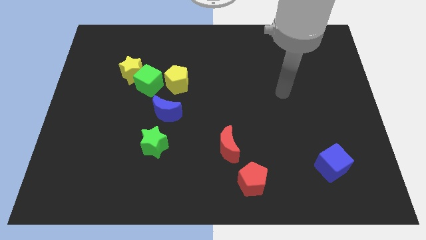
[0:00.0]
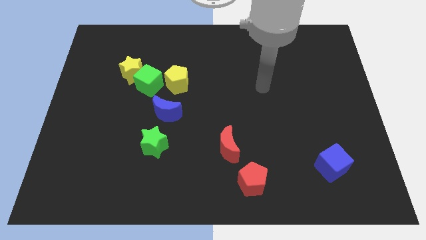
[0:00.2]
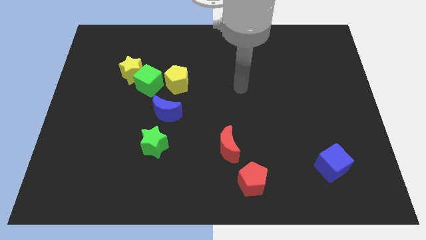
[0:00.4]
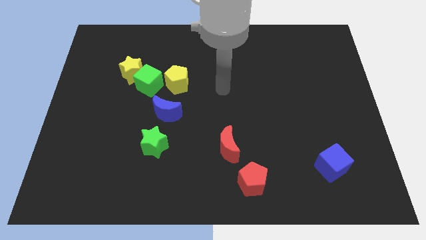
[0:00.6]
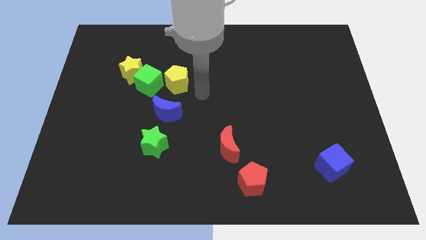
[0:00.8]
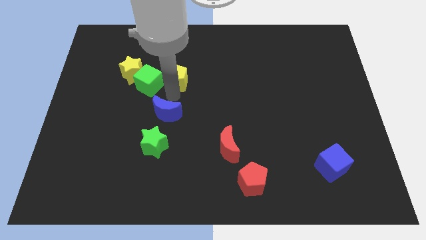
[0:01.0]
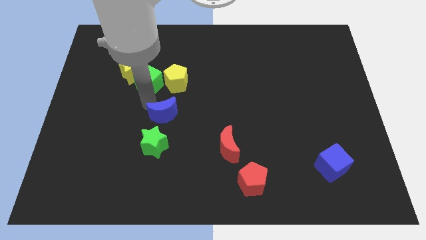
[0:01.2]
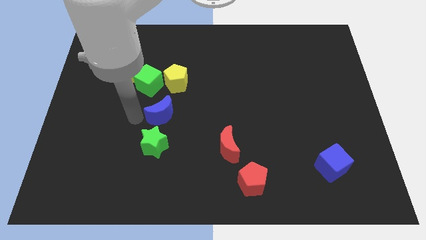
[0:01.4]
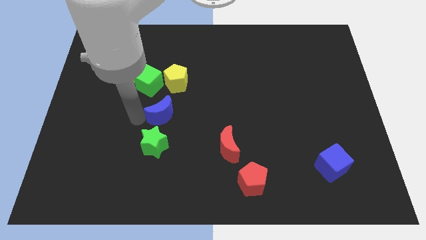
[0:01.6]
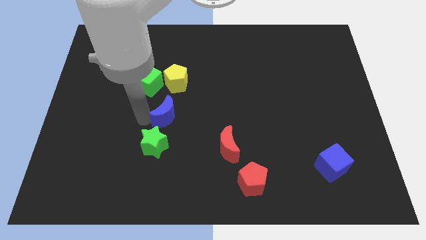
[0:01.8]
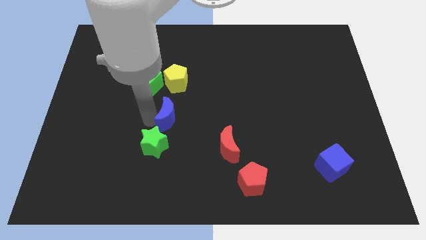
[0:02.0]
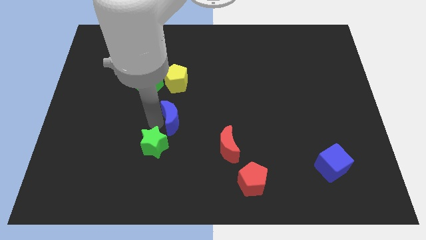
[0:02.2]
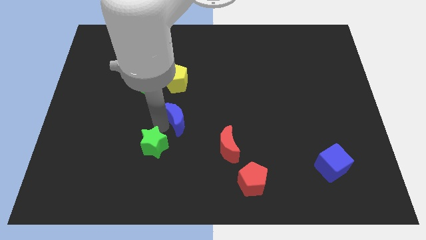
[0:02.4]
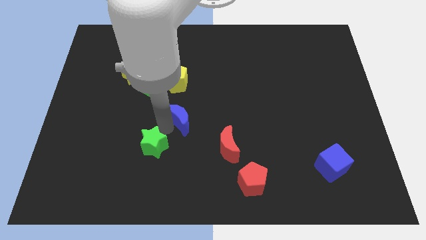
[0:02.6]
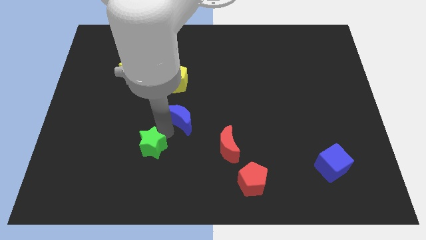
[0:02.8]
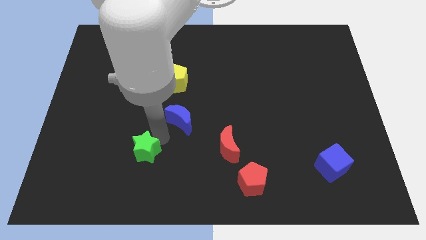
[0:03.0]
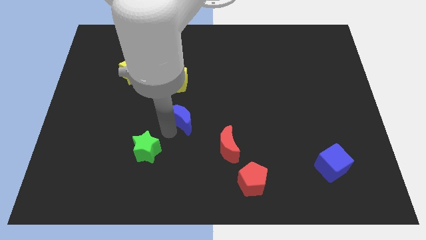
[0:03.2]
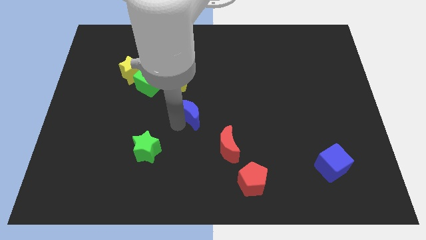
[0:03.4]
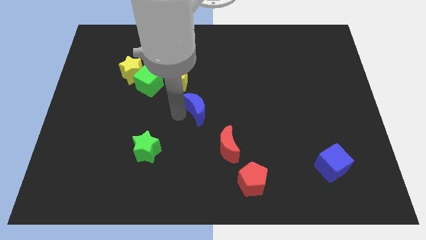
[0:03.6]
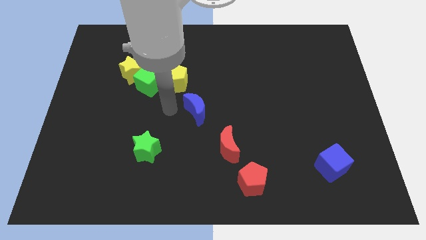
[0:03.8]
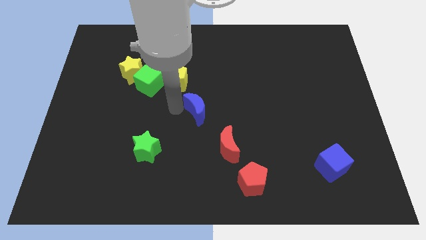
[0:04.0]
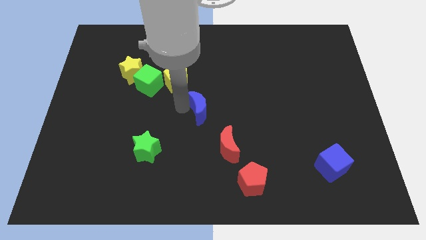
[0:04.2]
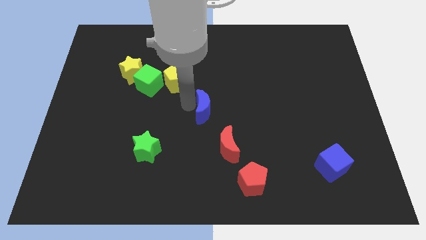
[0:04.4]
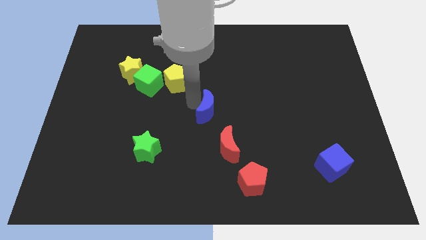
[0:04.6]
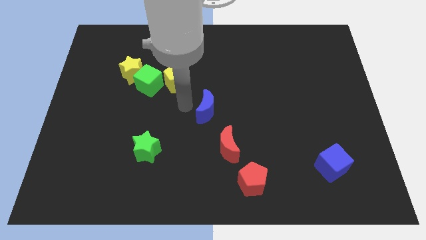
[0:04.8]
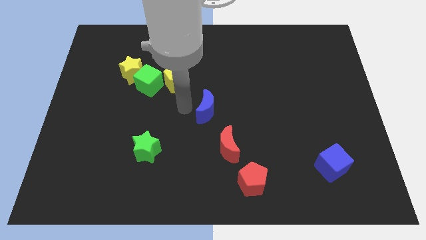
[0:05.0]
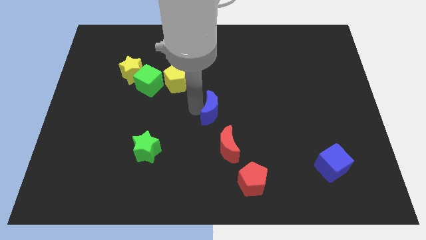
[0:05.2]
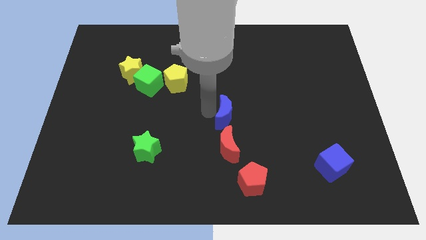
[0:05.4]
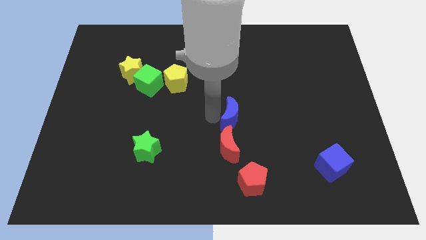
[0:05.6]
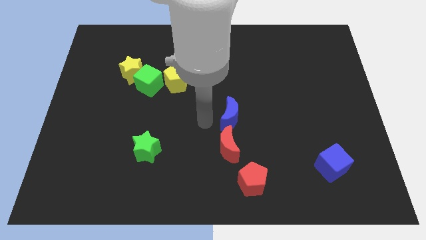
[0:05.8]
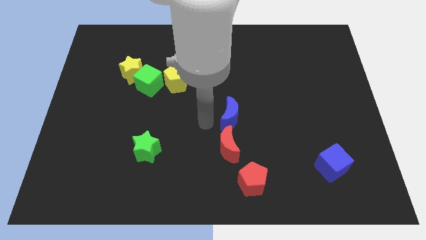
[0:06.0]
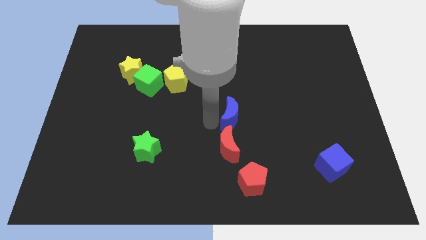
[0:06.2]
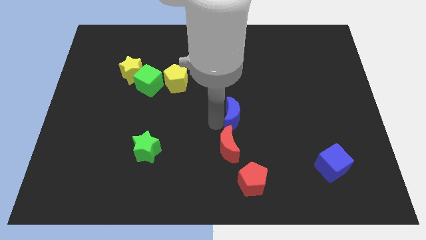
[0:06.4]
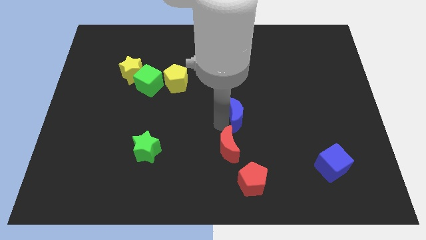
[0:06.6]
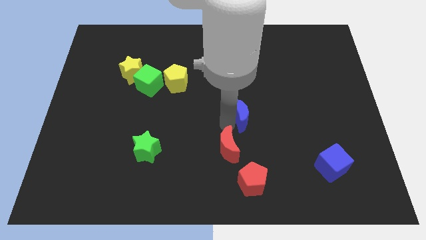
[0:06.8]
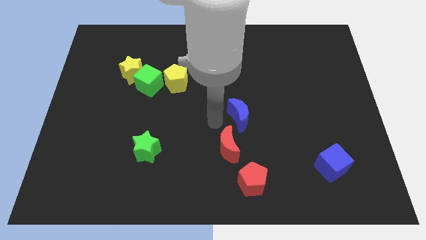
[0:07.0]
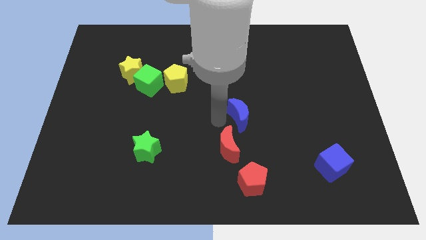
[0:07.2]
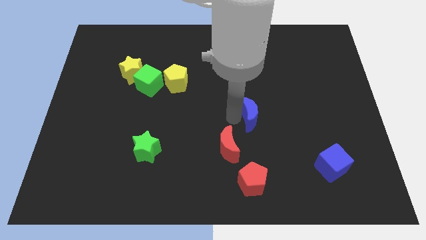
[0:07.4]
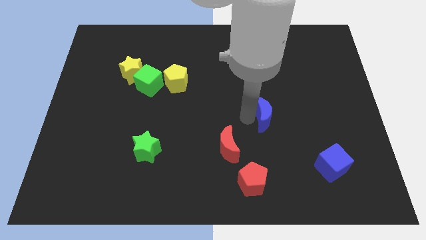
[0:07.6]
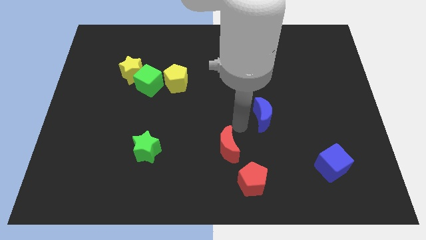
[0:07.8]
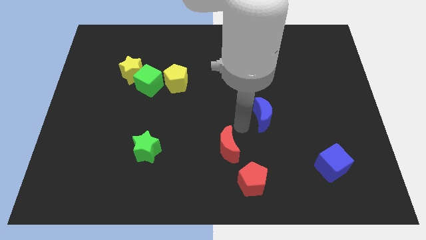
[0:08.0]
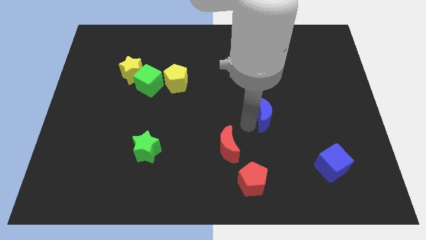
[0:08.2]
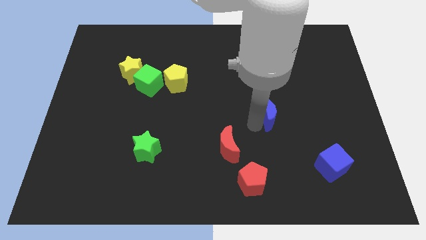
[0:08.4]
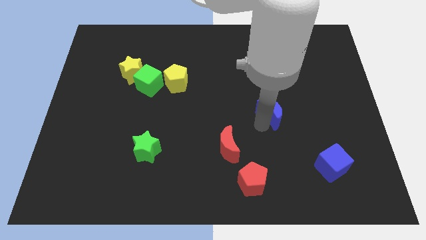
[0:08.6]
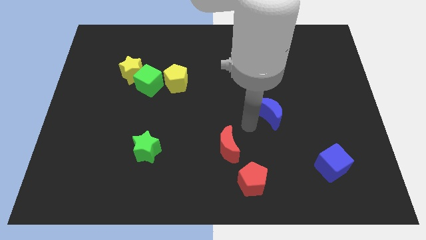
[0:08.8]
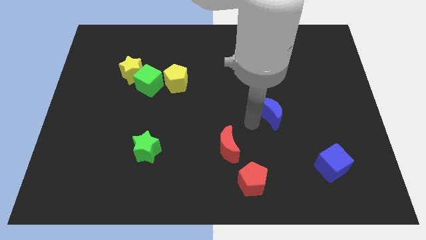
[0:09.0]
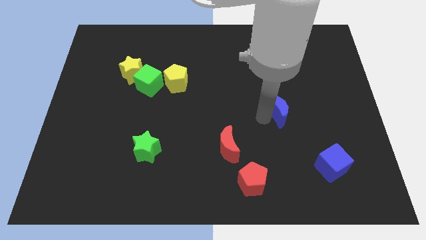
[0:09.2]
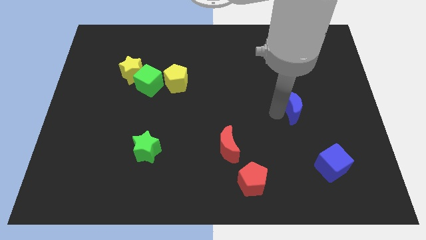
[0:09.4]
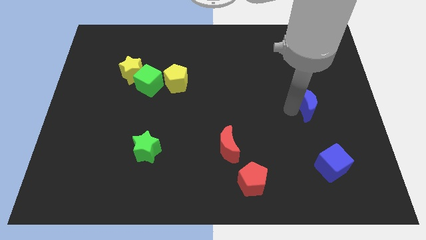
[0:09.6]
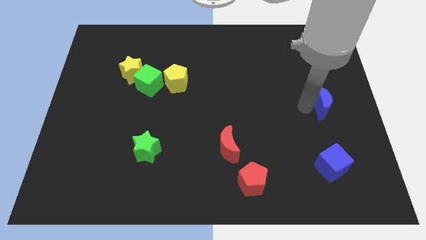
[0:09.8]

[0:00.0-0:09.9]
move the blue moon to the right side
